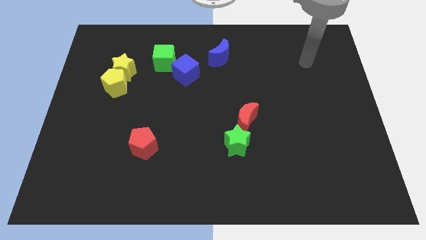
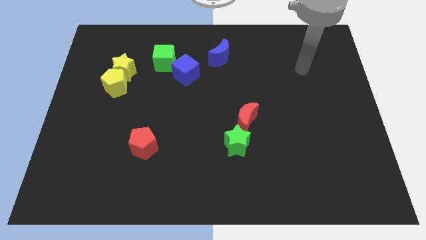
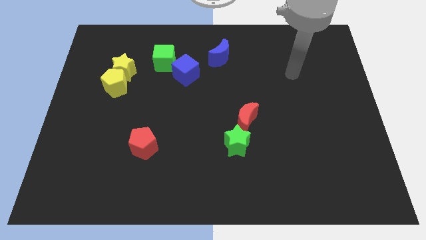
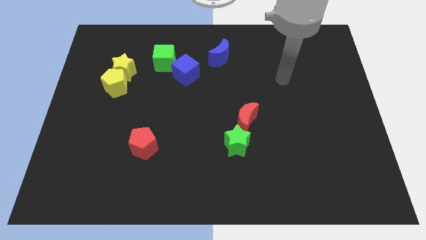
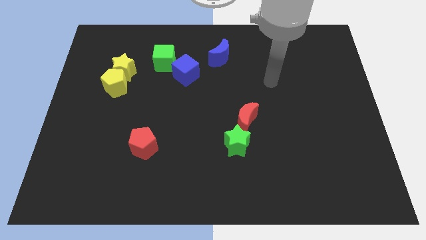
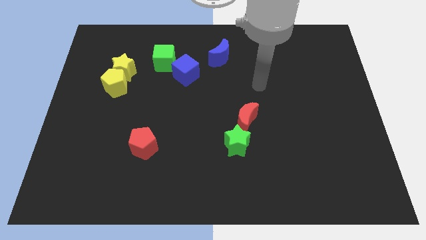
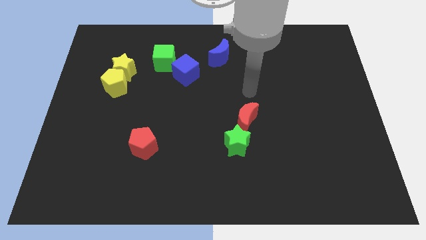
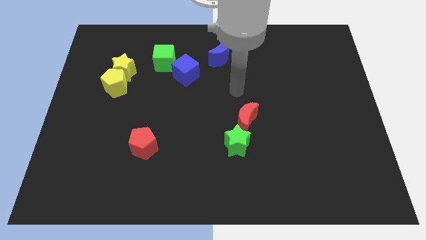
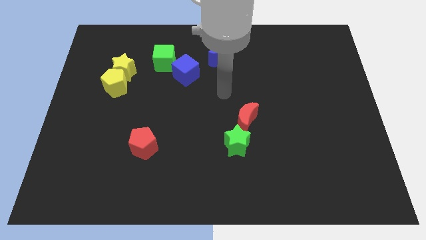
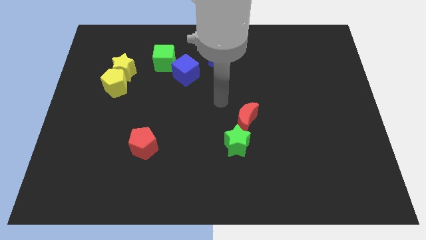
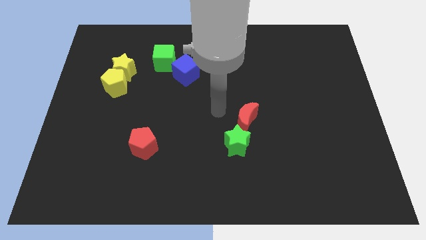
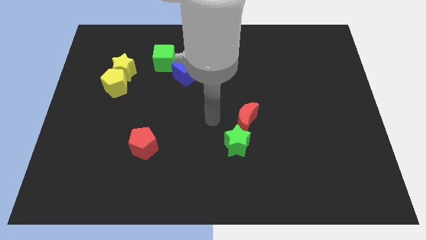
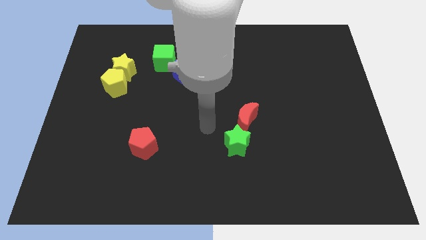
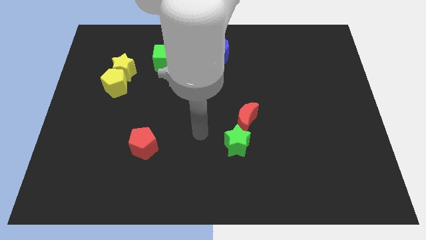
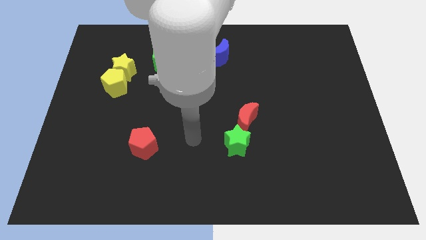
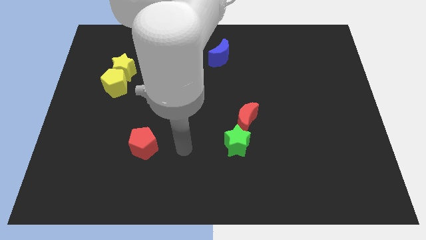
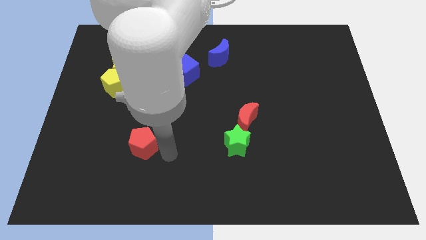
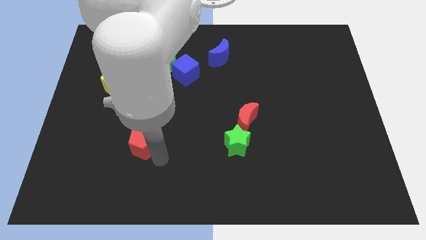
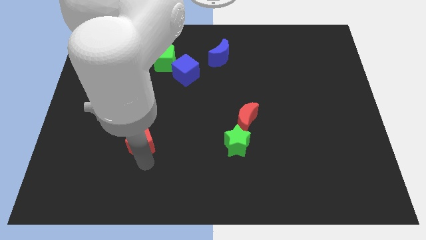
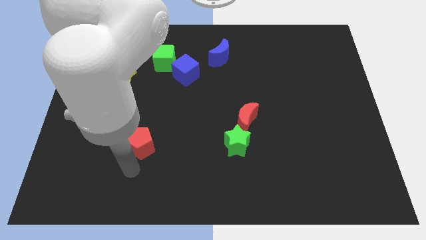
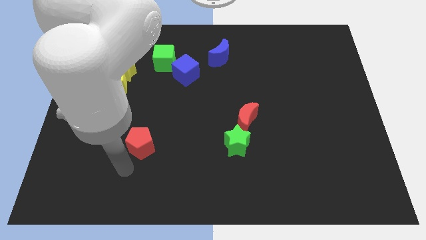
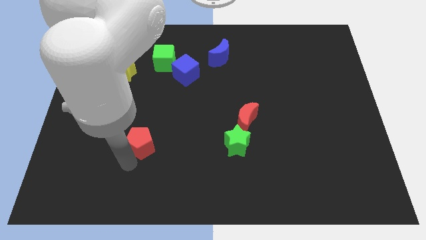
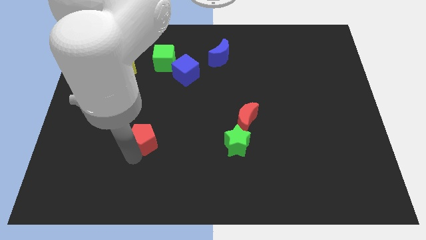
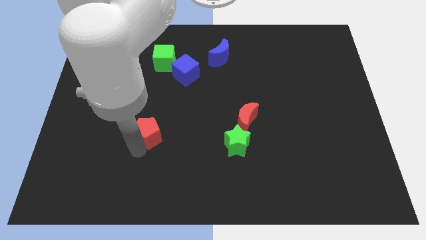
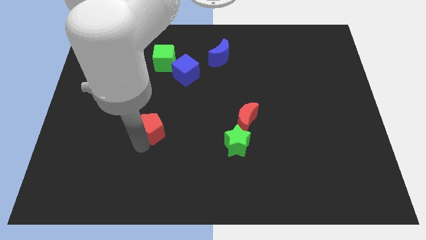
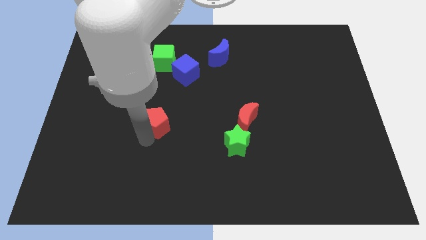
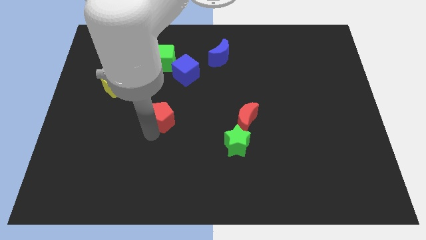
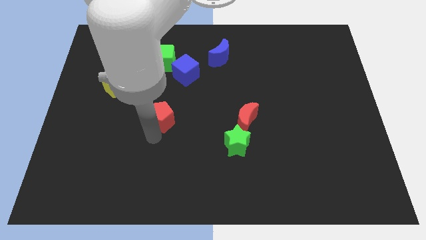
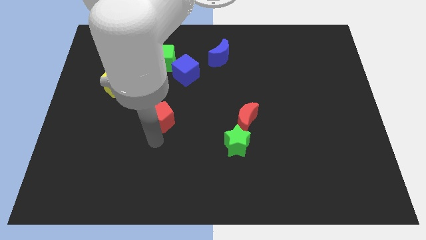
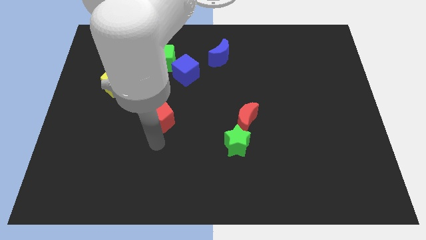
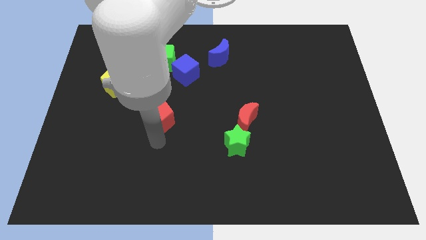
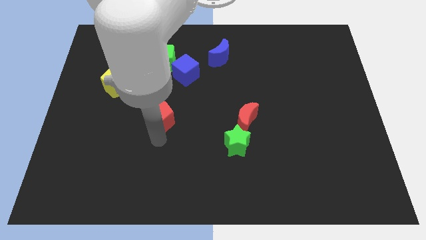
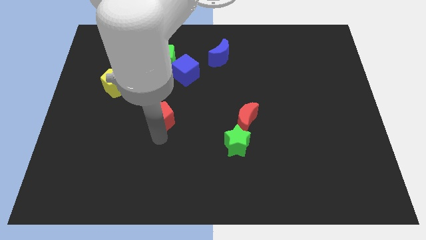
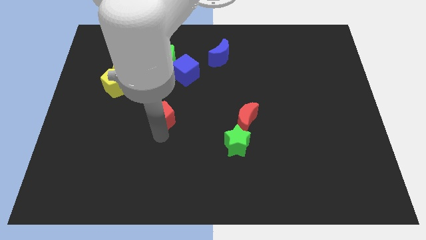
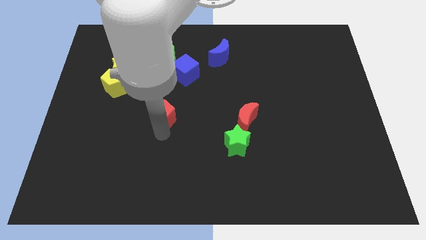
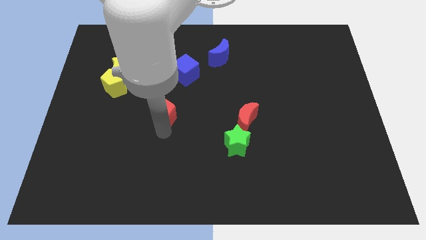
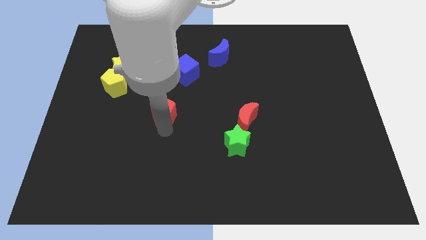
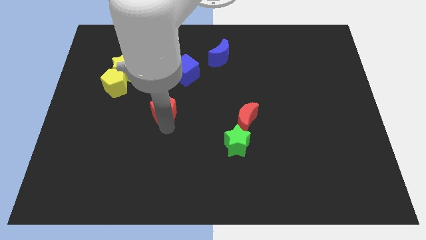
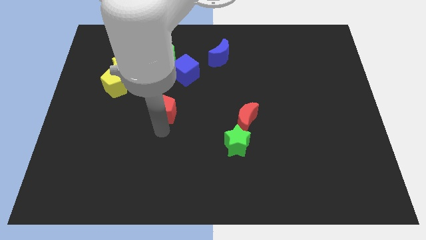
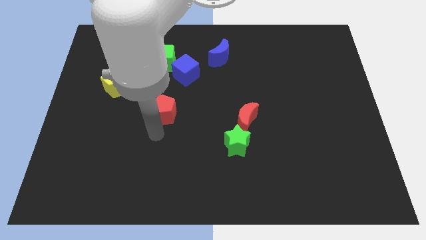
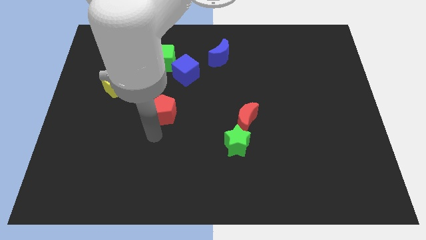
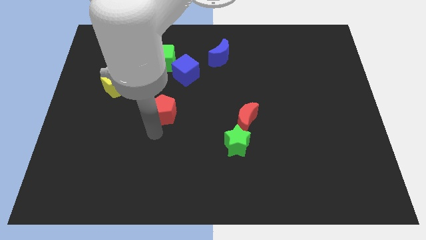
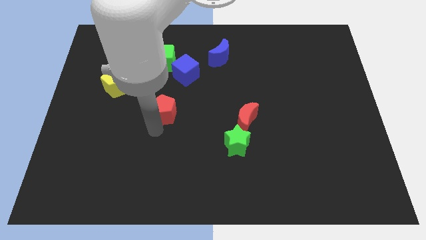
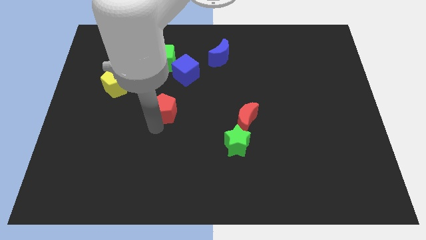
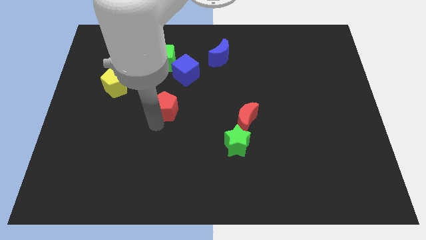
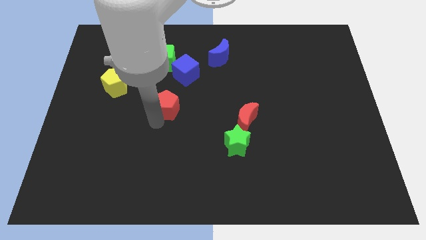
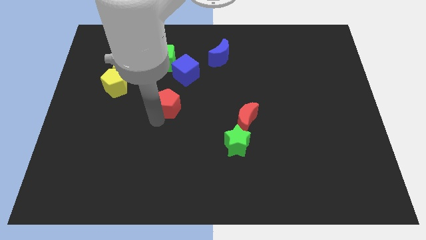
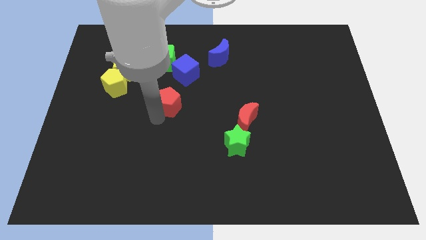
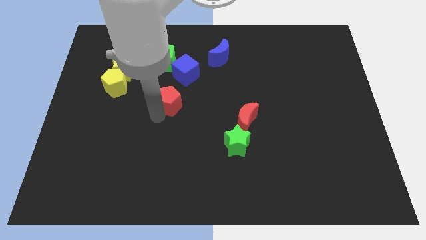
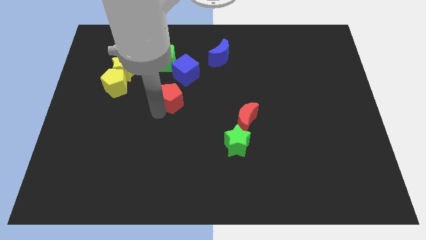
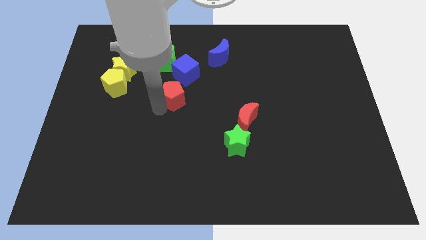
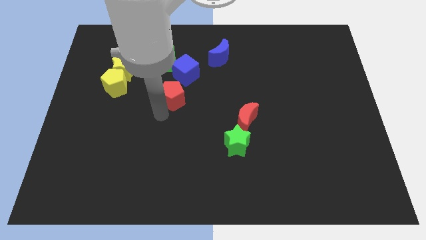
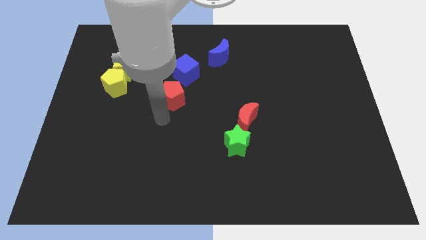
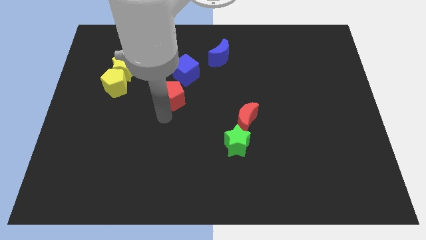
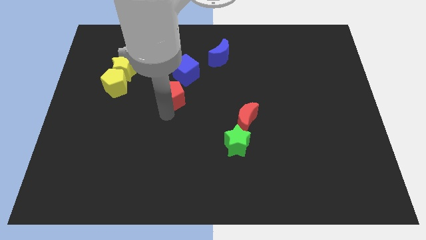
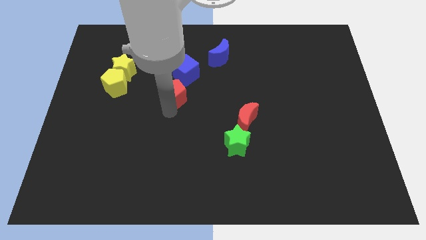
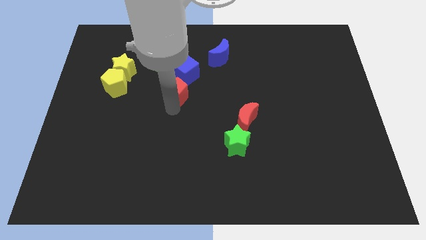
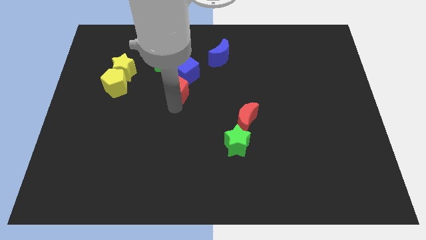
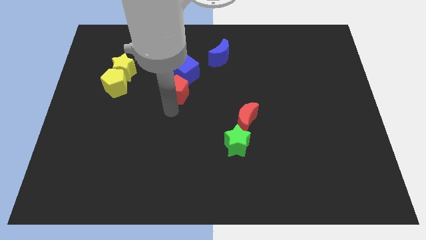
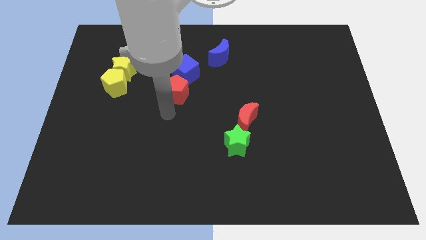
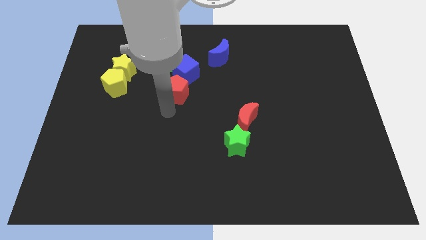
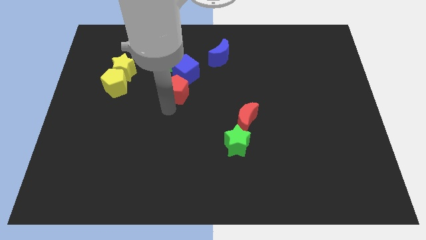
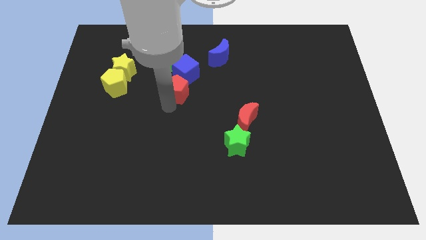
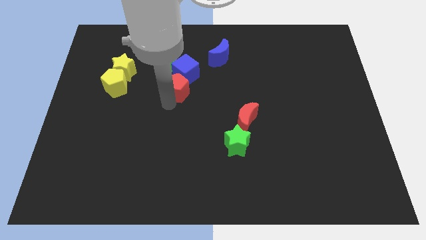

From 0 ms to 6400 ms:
push the red pentagon next to the blue cube

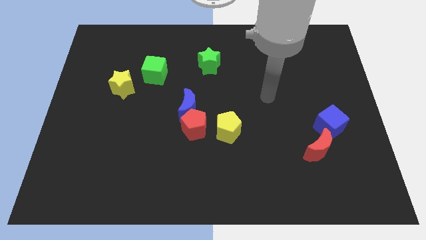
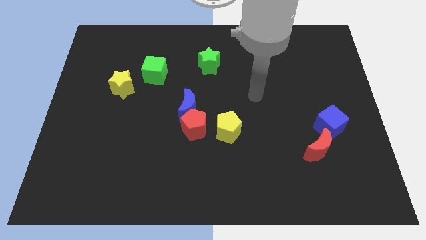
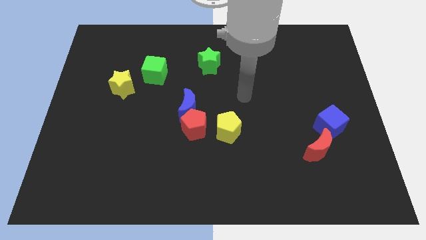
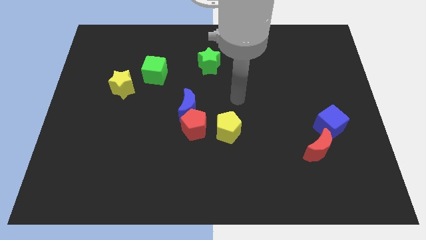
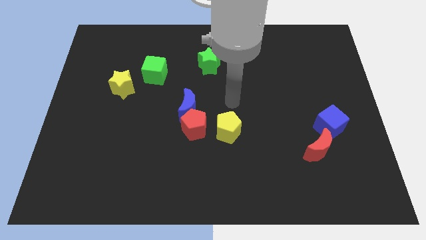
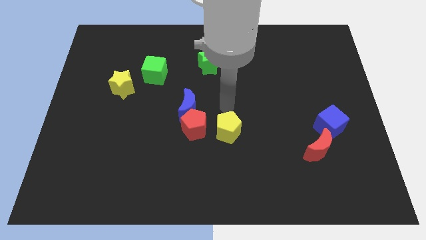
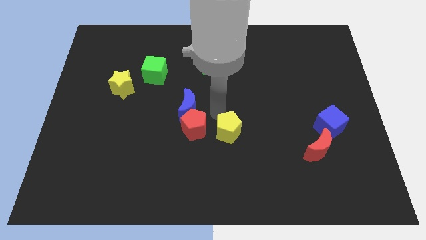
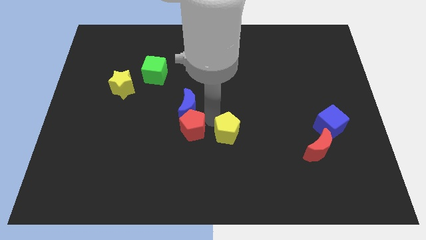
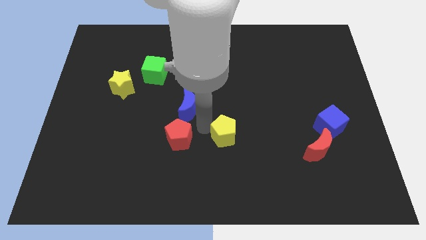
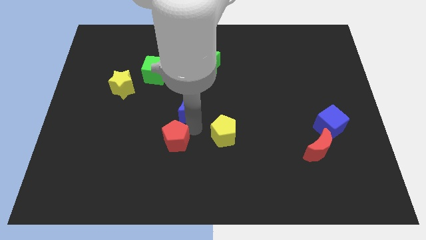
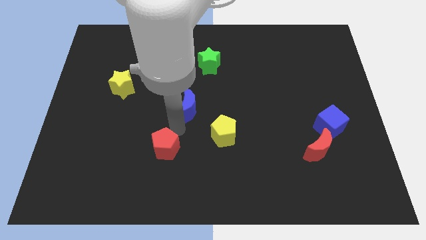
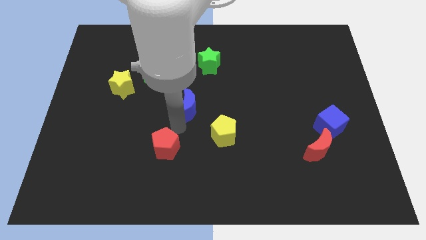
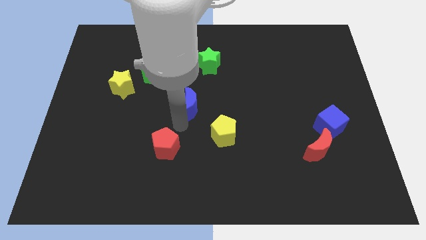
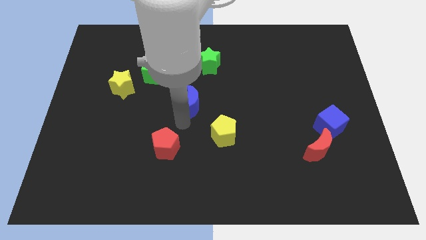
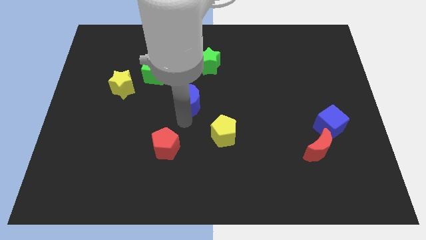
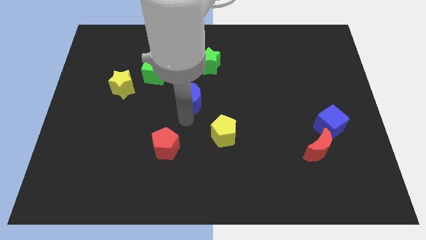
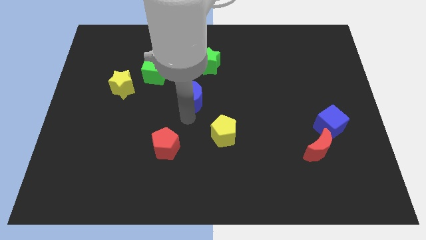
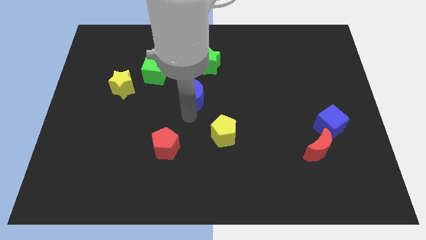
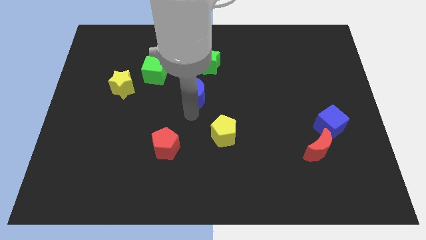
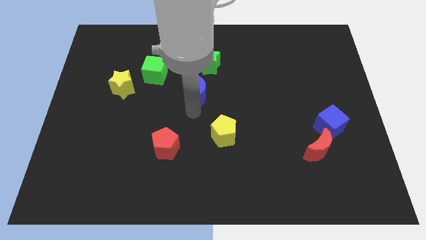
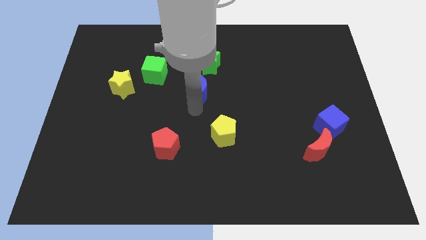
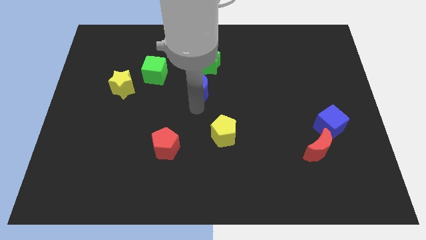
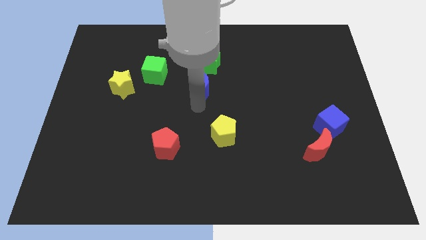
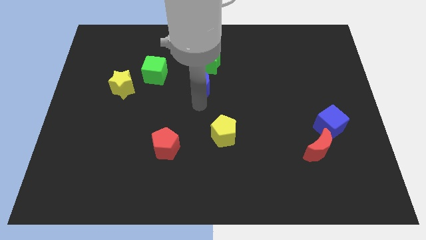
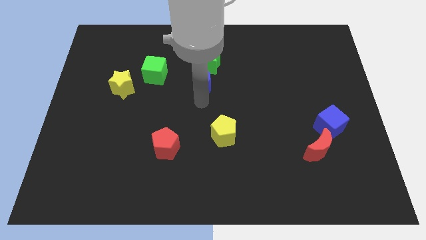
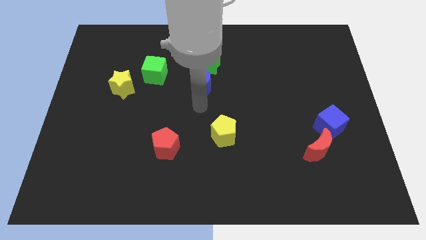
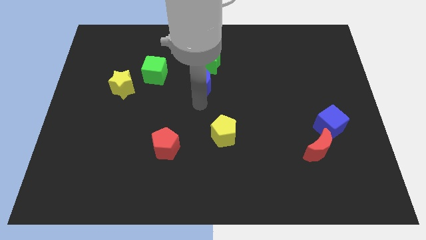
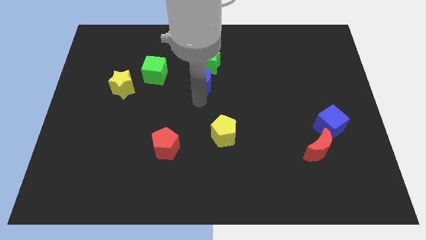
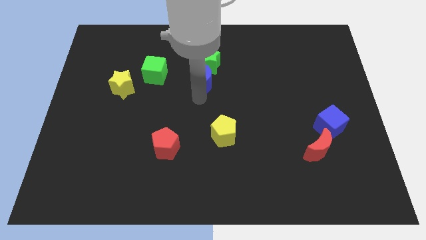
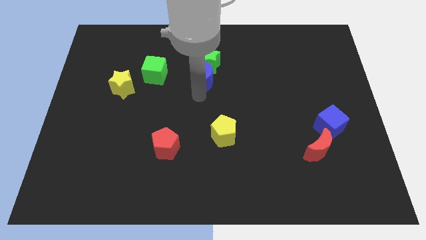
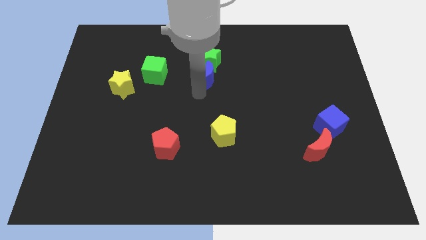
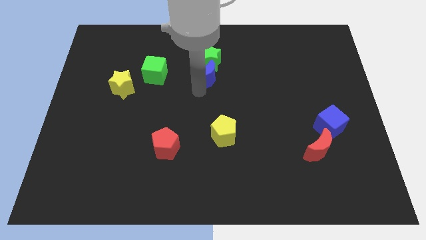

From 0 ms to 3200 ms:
put the blue moon to the green star
